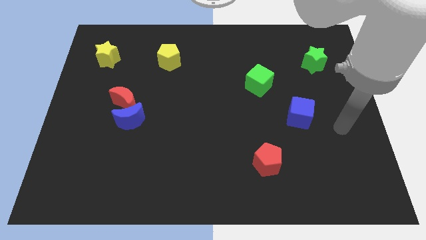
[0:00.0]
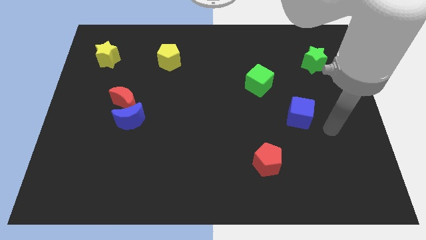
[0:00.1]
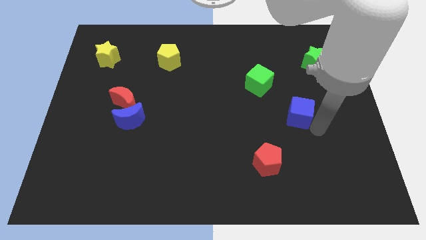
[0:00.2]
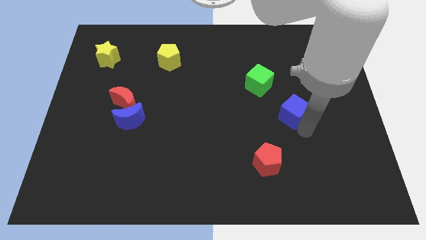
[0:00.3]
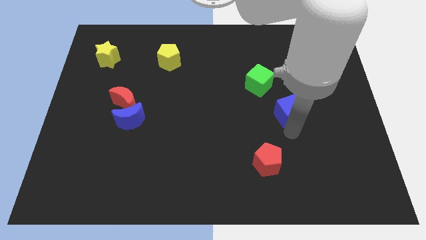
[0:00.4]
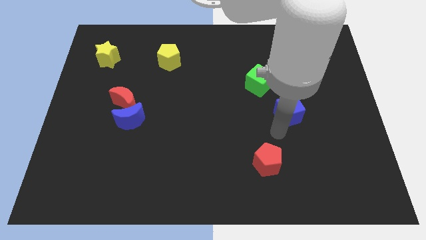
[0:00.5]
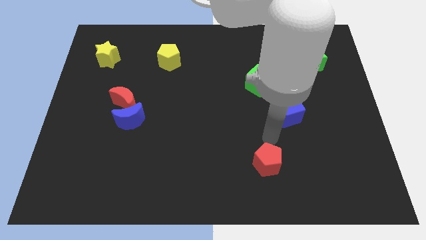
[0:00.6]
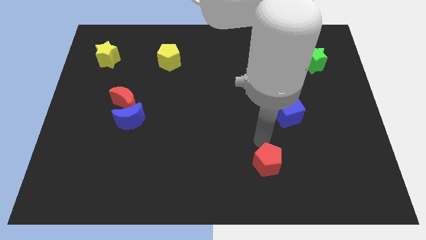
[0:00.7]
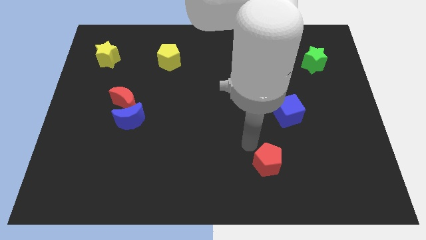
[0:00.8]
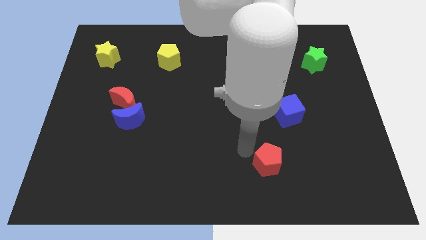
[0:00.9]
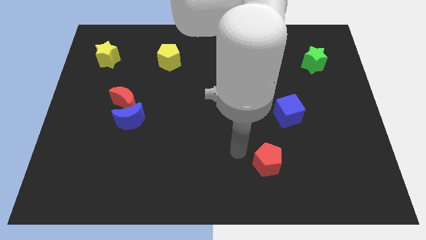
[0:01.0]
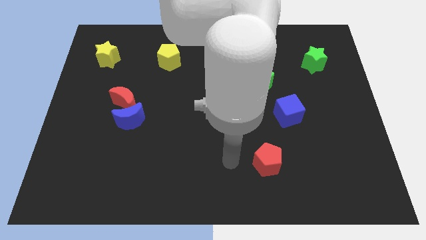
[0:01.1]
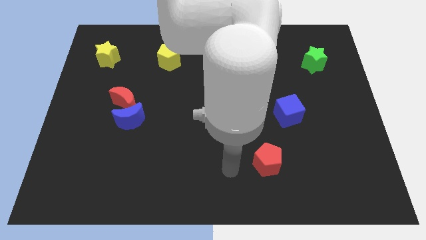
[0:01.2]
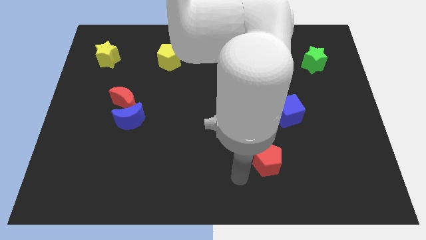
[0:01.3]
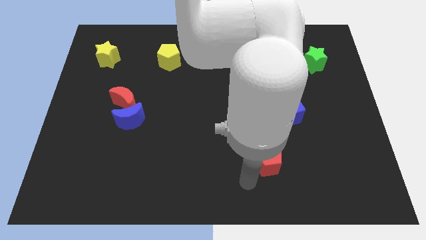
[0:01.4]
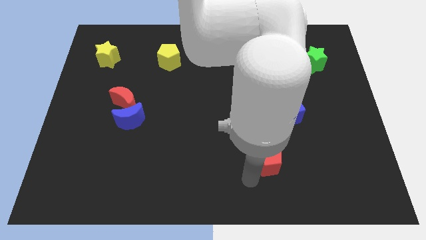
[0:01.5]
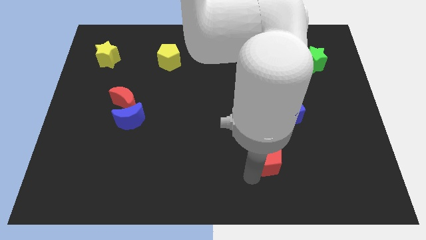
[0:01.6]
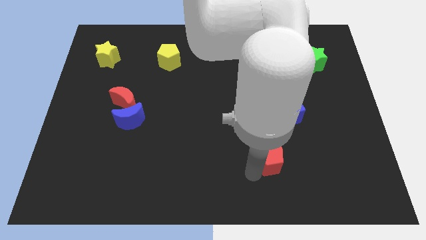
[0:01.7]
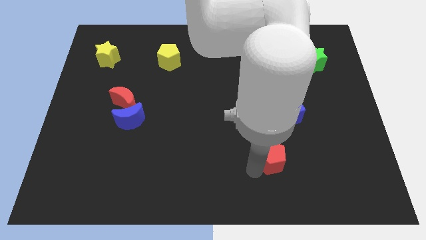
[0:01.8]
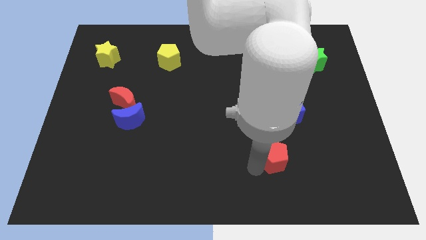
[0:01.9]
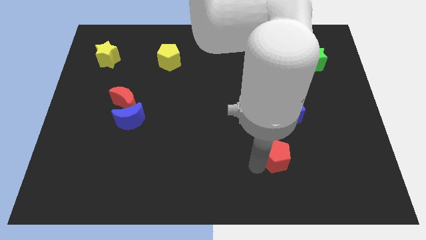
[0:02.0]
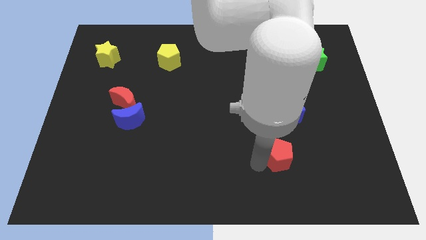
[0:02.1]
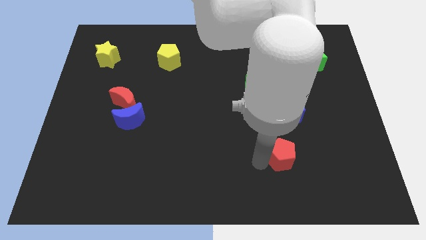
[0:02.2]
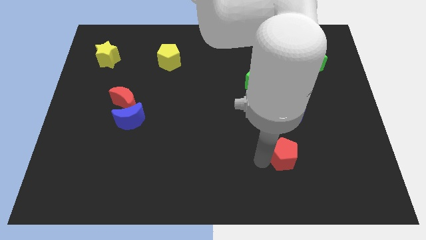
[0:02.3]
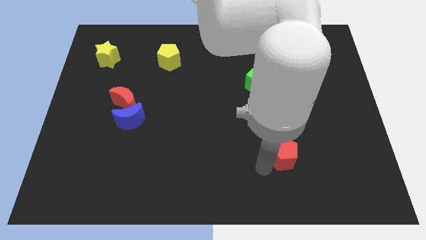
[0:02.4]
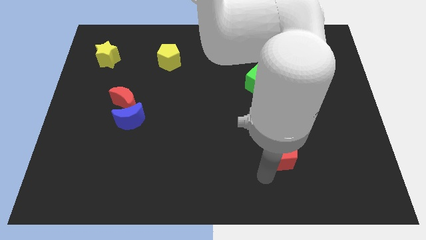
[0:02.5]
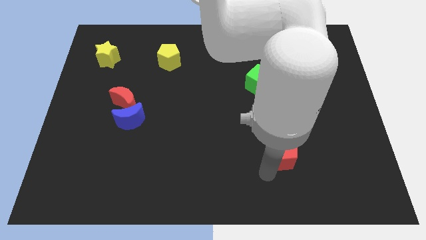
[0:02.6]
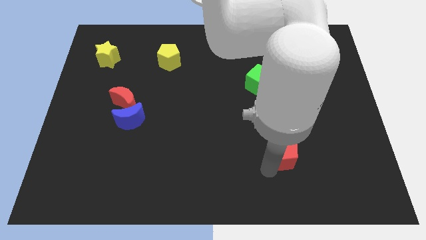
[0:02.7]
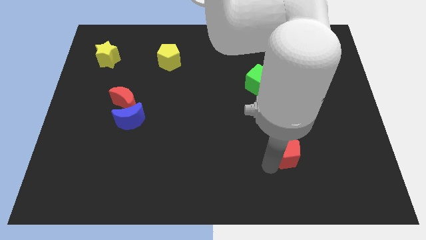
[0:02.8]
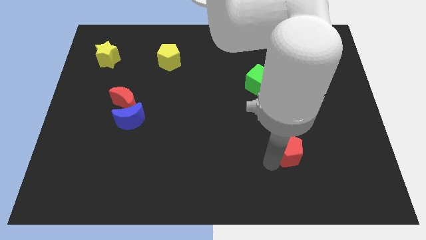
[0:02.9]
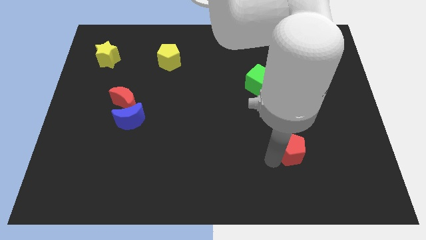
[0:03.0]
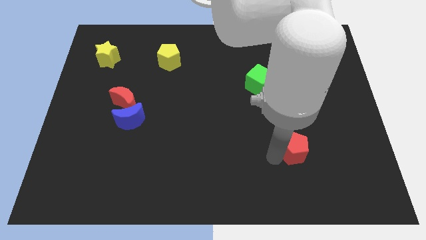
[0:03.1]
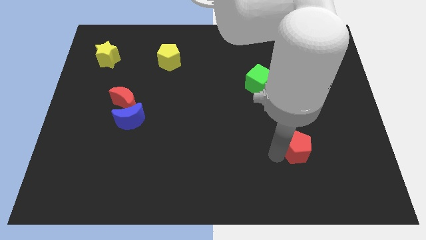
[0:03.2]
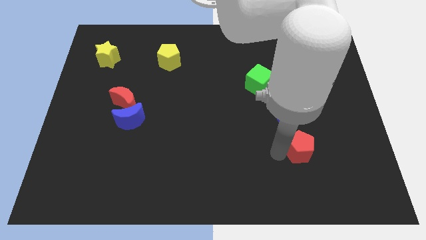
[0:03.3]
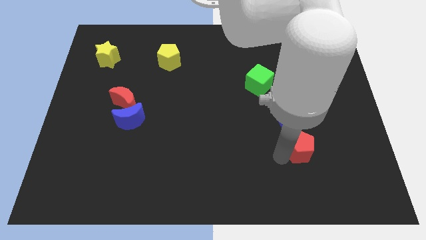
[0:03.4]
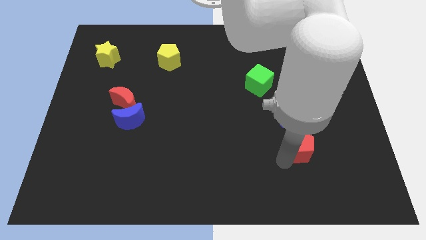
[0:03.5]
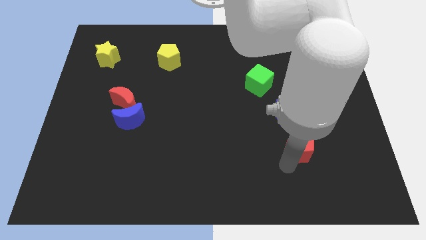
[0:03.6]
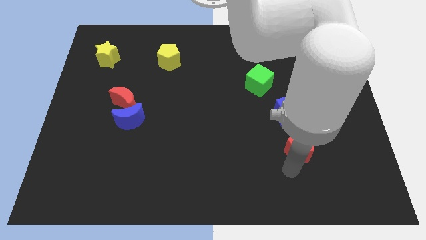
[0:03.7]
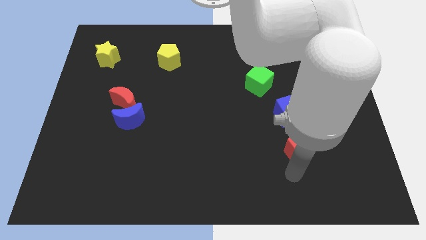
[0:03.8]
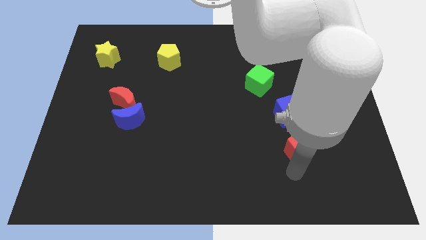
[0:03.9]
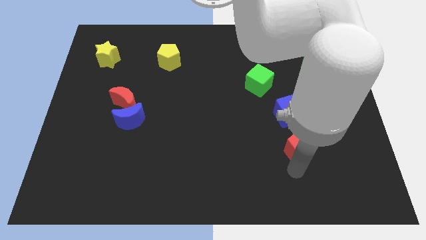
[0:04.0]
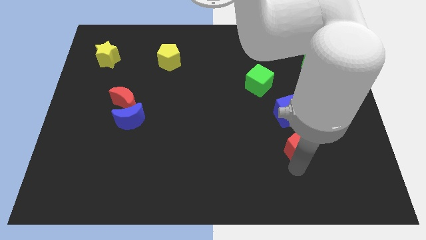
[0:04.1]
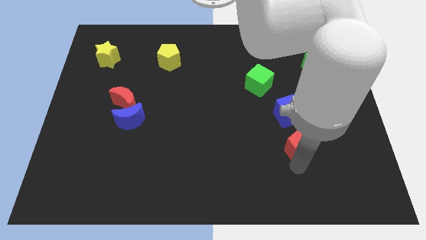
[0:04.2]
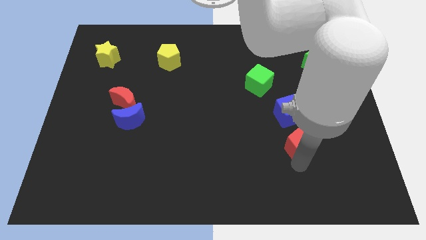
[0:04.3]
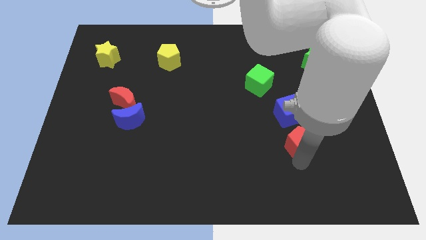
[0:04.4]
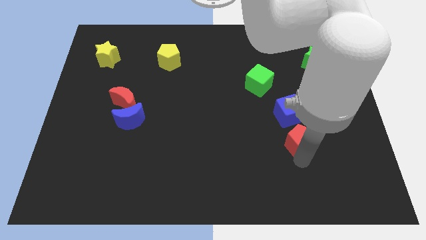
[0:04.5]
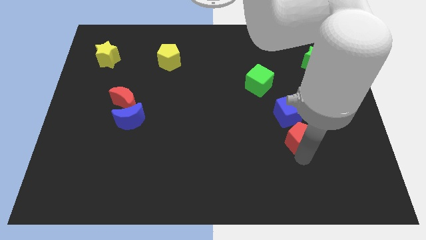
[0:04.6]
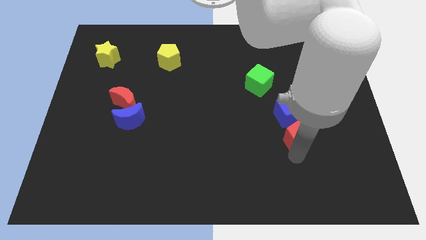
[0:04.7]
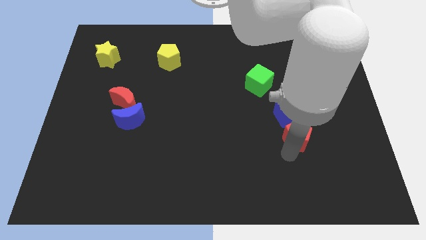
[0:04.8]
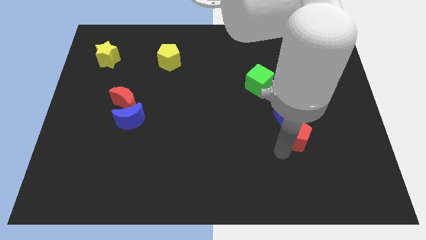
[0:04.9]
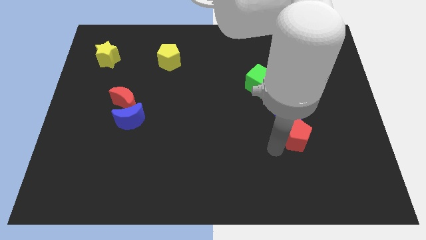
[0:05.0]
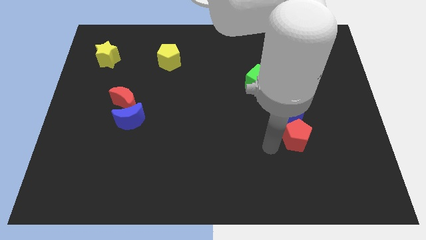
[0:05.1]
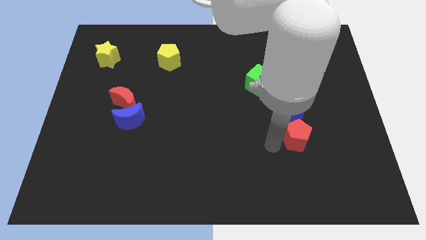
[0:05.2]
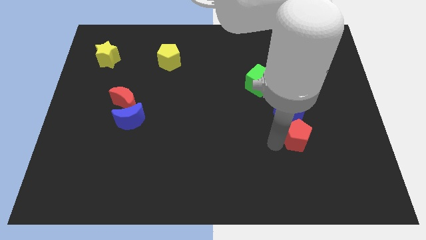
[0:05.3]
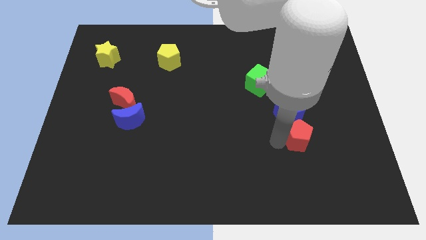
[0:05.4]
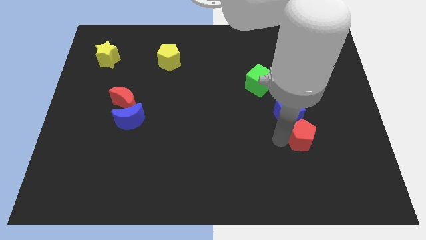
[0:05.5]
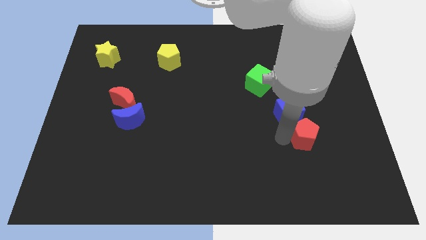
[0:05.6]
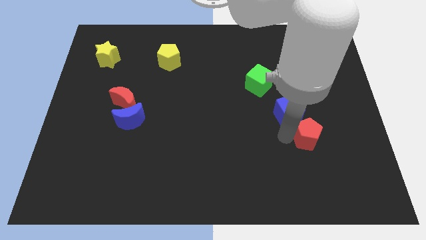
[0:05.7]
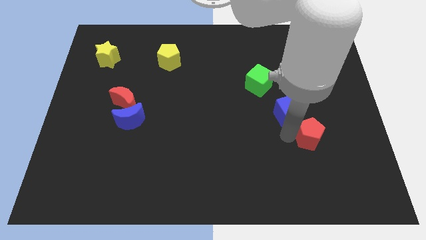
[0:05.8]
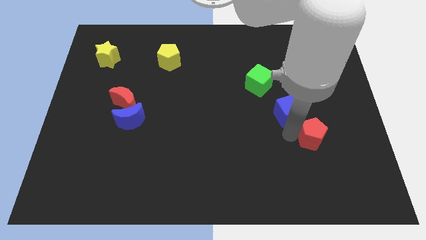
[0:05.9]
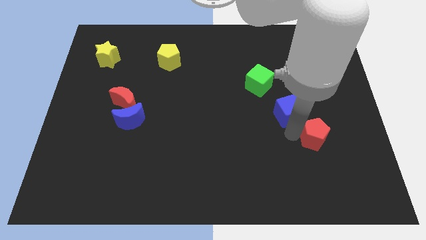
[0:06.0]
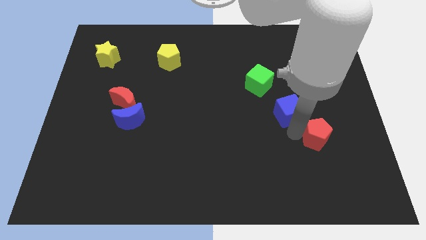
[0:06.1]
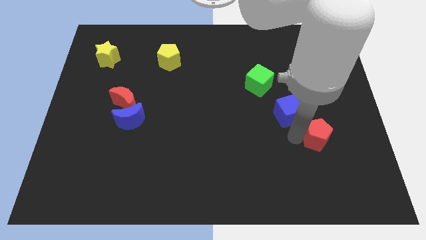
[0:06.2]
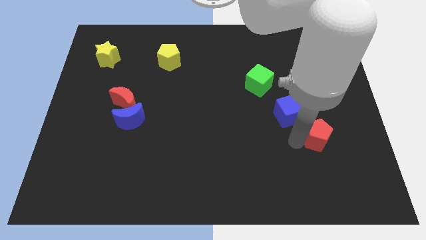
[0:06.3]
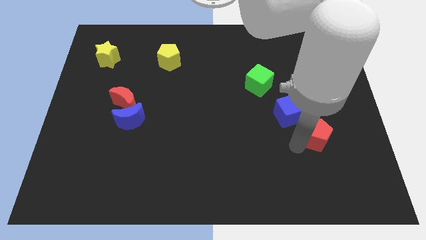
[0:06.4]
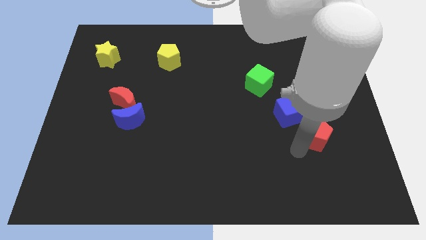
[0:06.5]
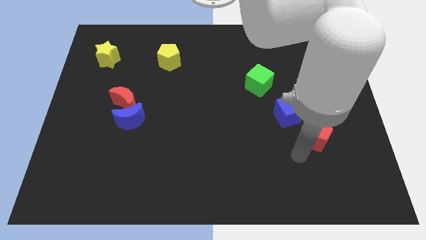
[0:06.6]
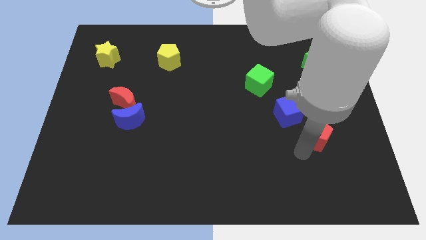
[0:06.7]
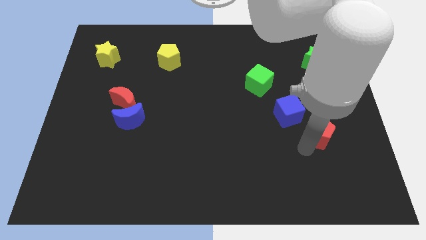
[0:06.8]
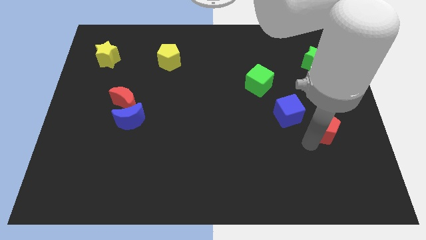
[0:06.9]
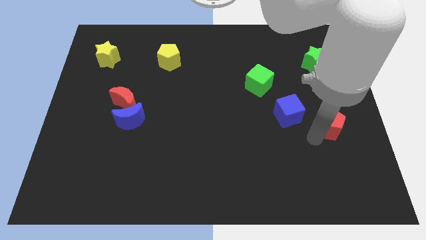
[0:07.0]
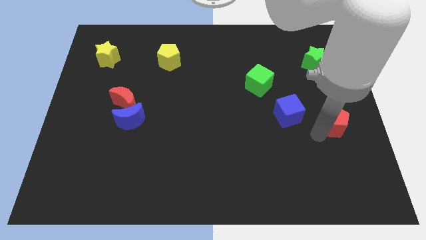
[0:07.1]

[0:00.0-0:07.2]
put the red pentagon to the right side
